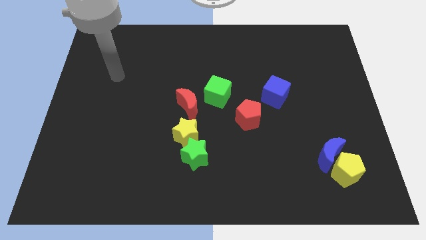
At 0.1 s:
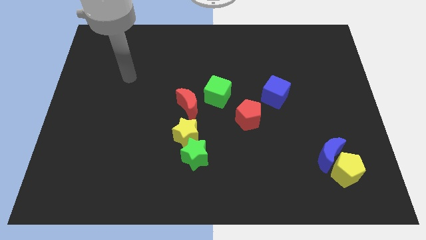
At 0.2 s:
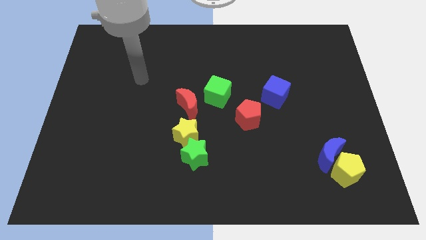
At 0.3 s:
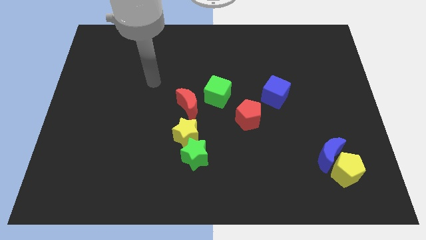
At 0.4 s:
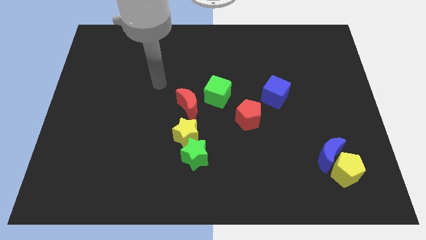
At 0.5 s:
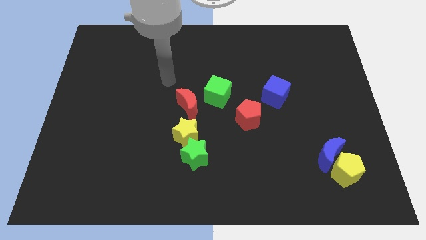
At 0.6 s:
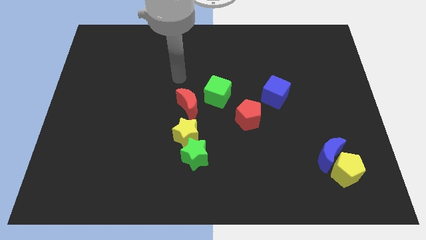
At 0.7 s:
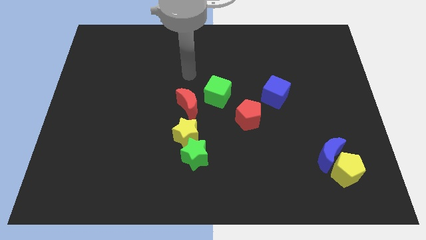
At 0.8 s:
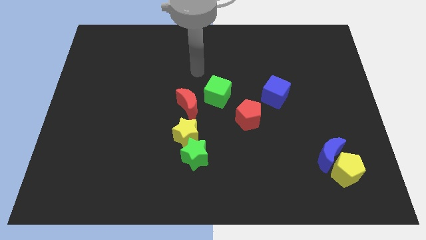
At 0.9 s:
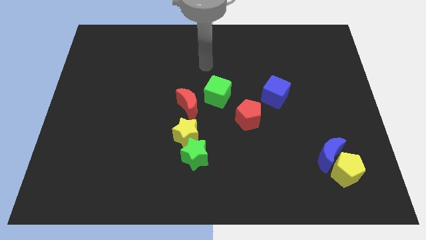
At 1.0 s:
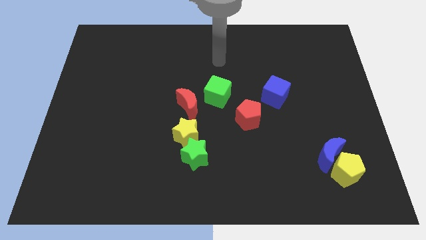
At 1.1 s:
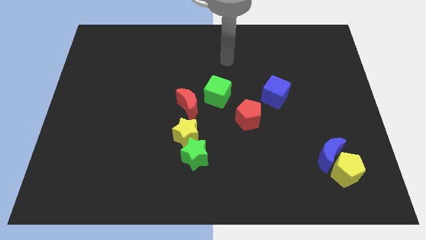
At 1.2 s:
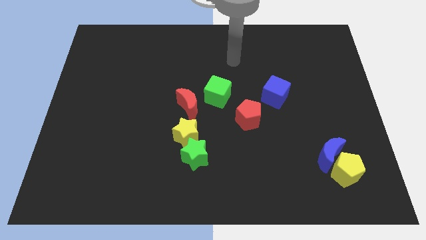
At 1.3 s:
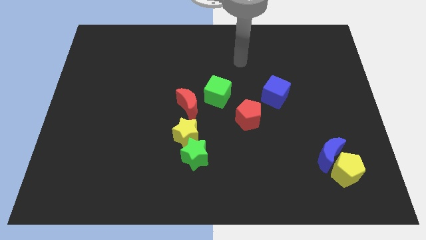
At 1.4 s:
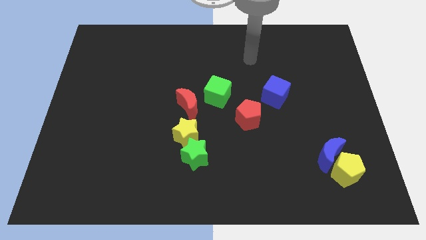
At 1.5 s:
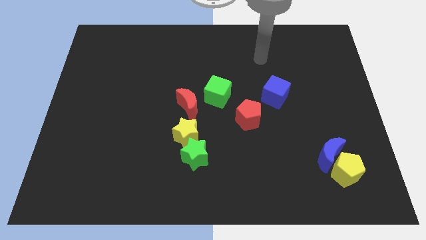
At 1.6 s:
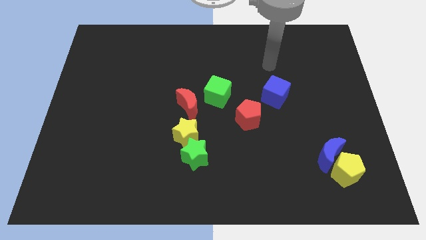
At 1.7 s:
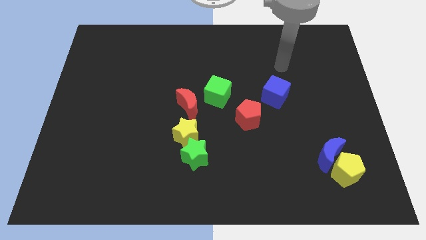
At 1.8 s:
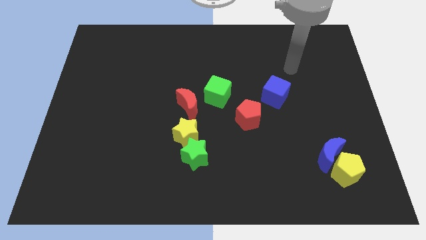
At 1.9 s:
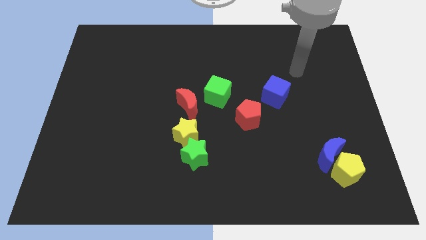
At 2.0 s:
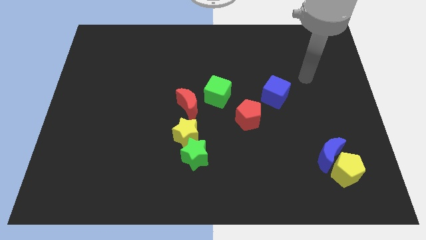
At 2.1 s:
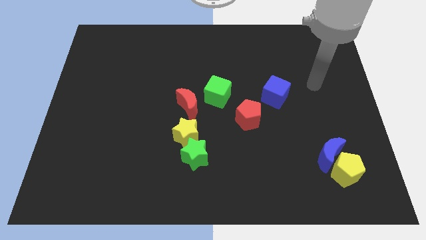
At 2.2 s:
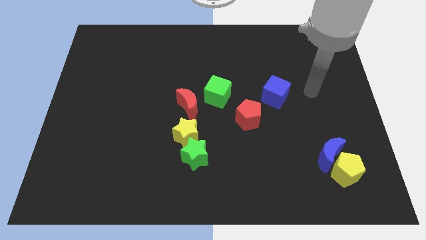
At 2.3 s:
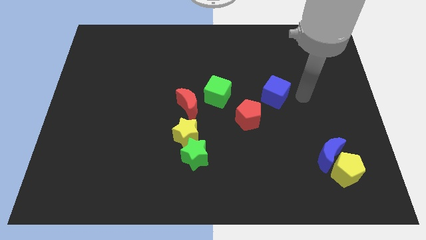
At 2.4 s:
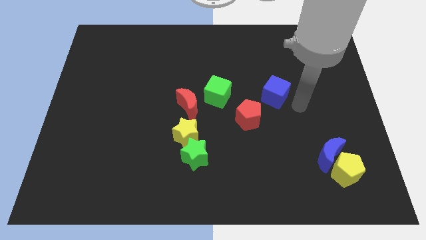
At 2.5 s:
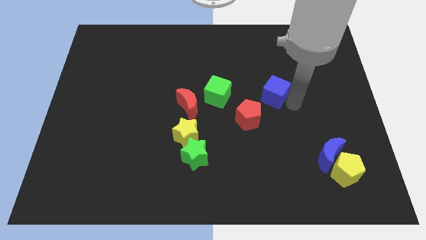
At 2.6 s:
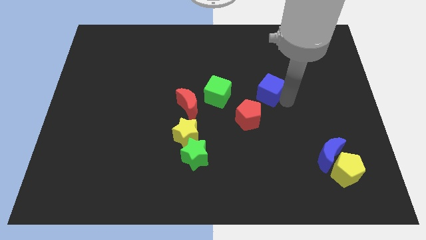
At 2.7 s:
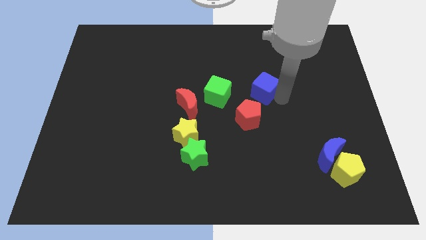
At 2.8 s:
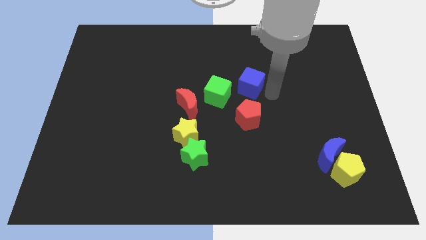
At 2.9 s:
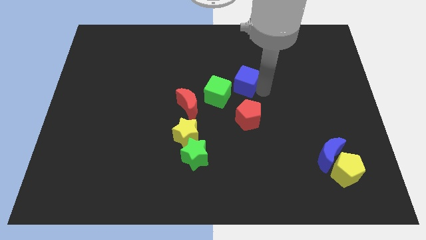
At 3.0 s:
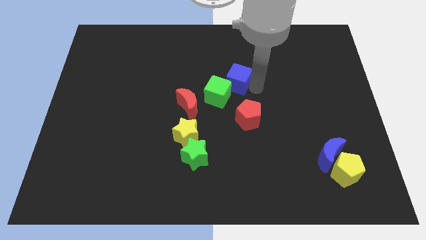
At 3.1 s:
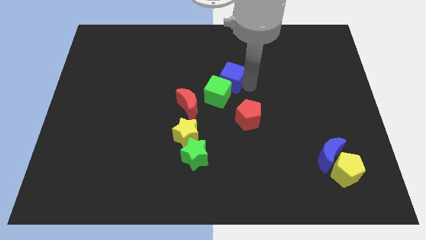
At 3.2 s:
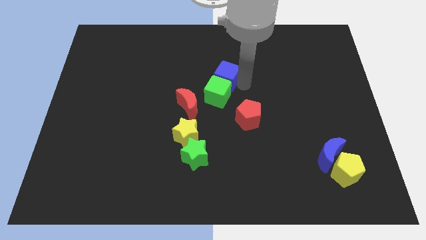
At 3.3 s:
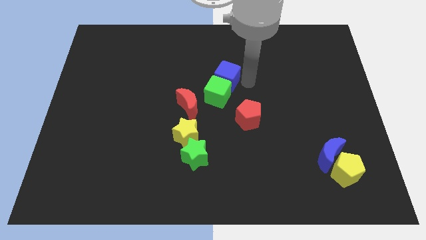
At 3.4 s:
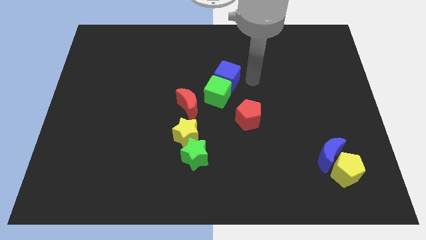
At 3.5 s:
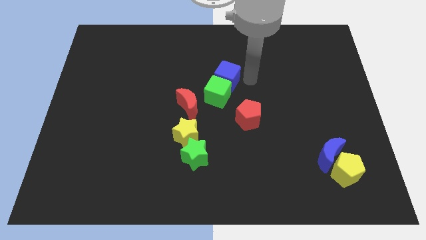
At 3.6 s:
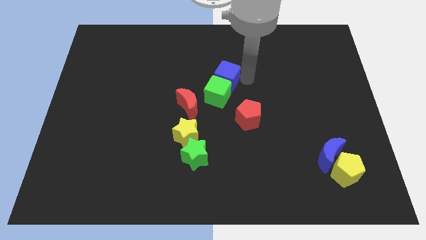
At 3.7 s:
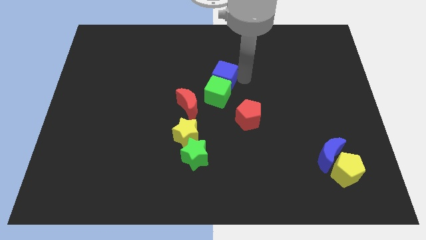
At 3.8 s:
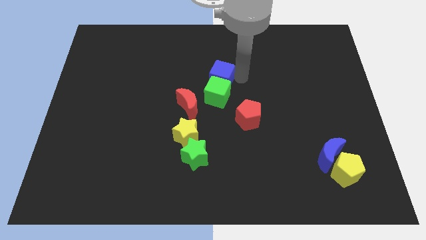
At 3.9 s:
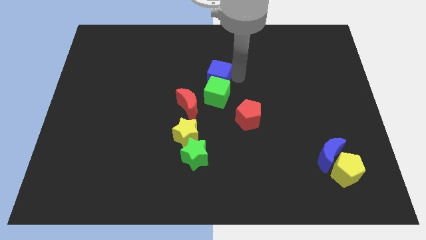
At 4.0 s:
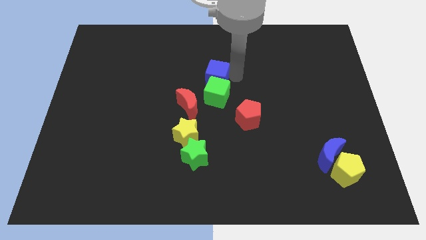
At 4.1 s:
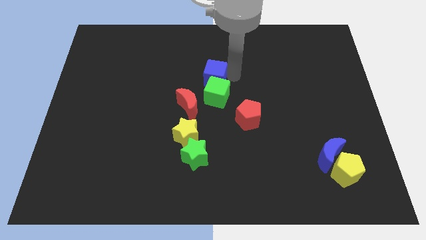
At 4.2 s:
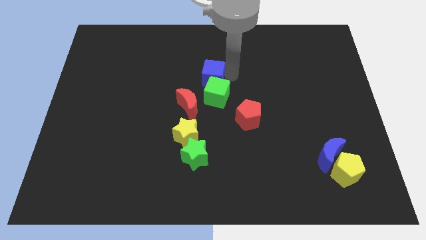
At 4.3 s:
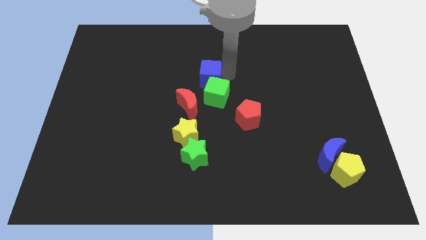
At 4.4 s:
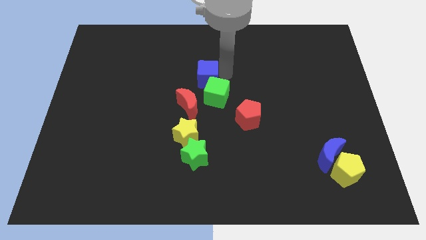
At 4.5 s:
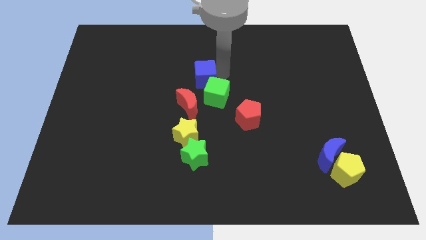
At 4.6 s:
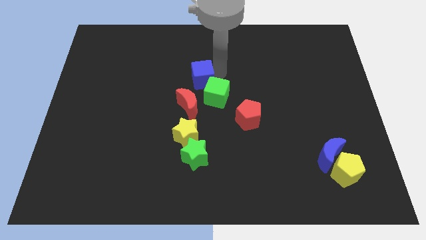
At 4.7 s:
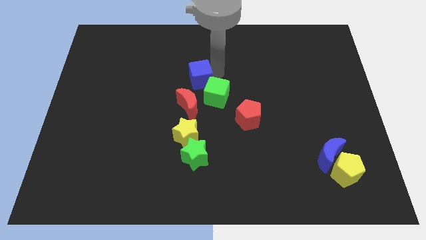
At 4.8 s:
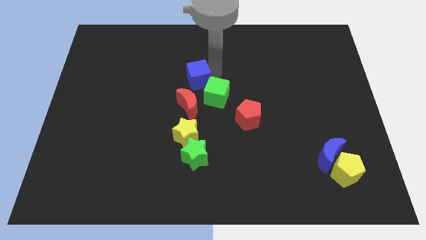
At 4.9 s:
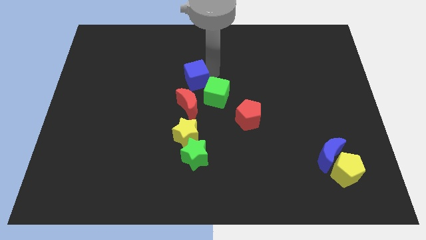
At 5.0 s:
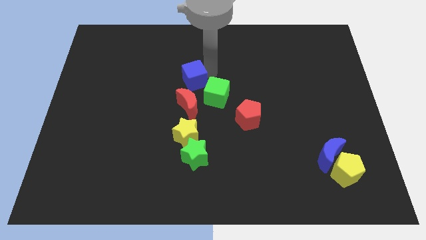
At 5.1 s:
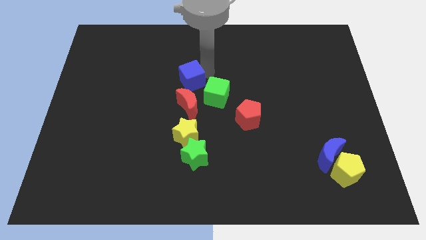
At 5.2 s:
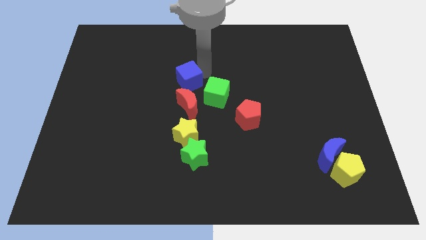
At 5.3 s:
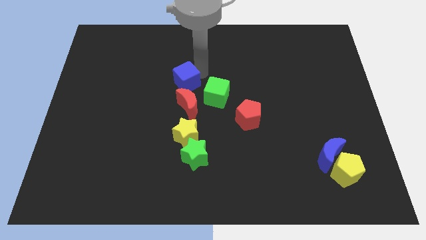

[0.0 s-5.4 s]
move the blue cube diagonally up and to the left of the red moon

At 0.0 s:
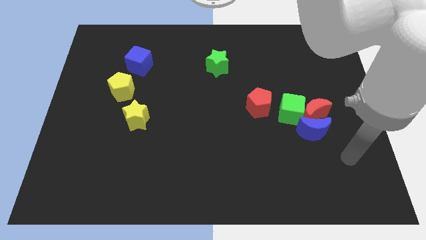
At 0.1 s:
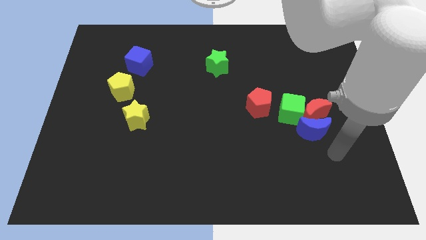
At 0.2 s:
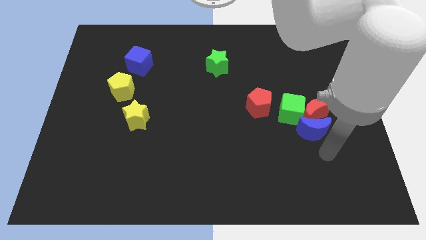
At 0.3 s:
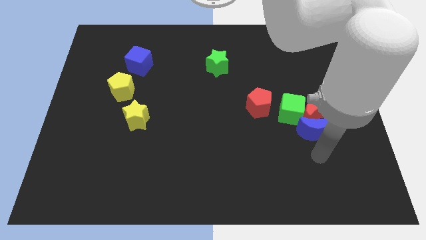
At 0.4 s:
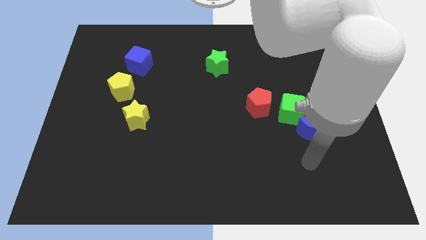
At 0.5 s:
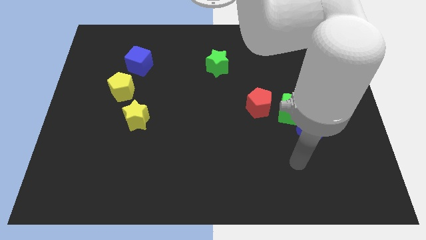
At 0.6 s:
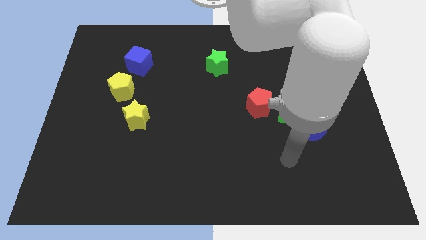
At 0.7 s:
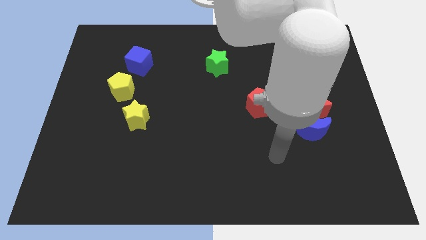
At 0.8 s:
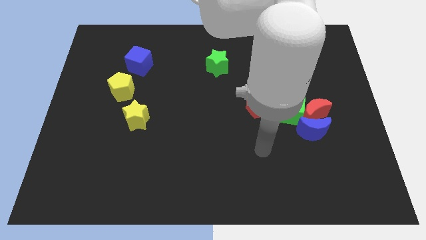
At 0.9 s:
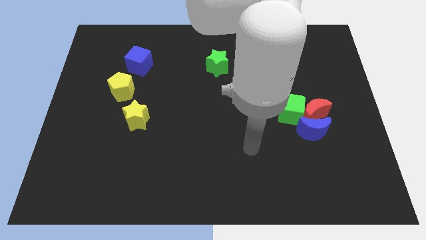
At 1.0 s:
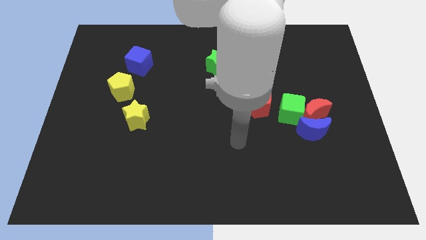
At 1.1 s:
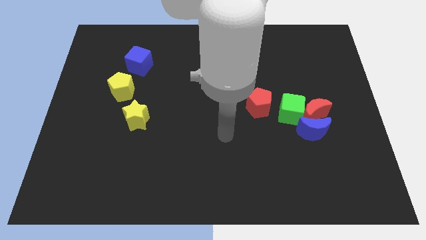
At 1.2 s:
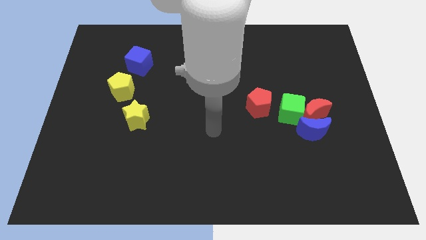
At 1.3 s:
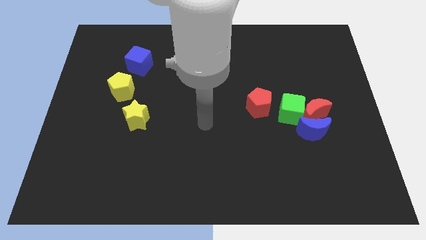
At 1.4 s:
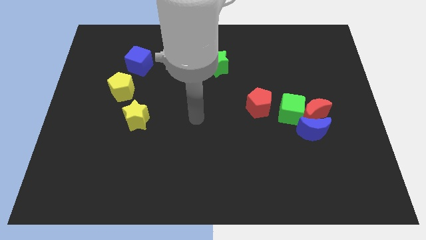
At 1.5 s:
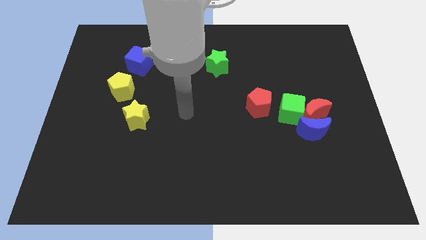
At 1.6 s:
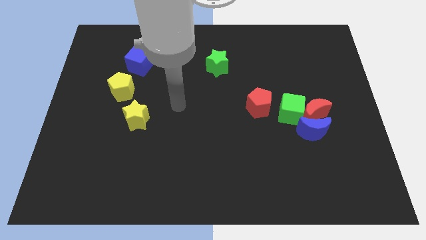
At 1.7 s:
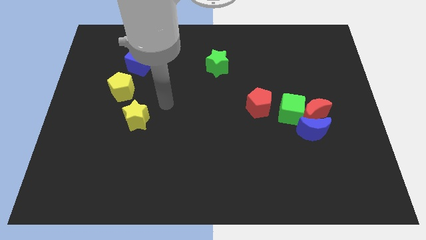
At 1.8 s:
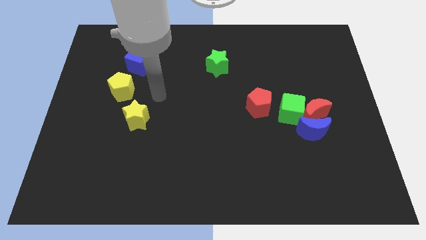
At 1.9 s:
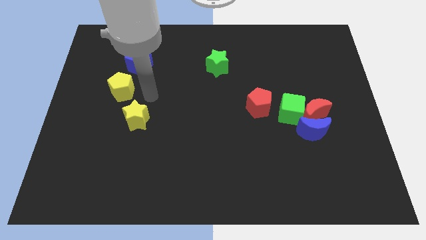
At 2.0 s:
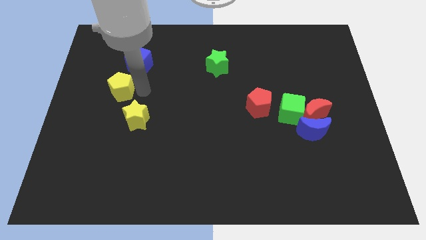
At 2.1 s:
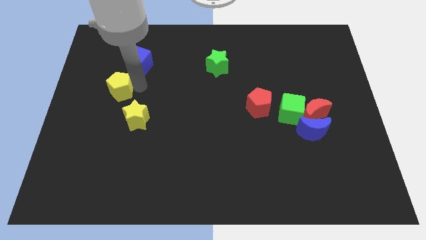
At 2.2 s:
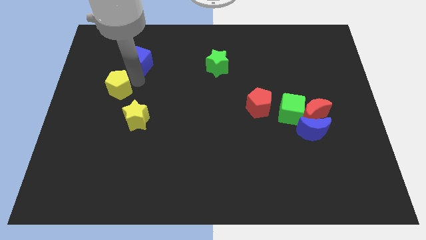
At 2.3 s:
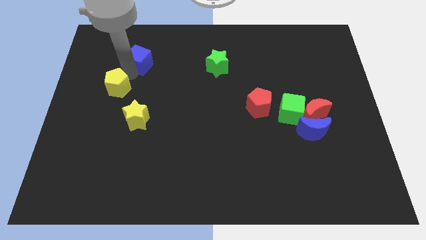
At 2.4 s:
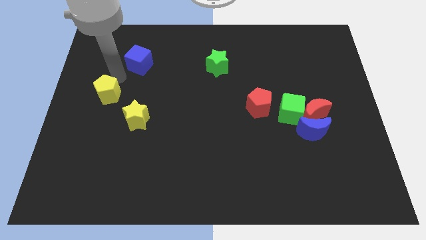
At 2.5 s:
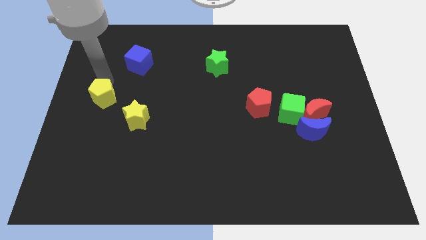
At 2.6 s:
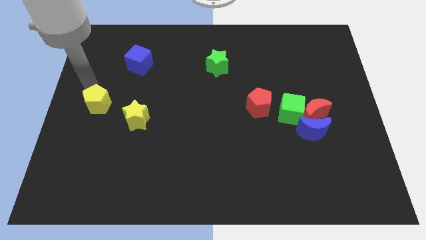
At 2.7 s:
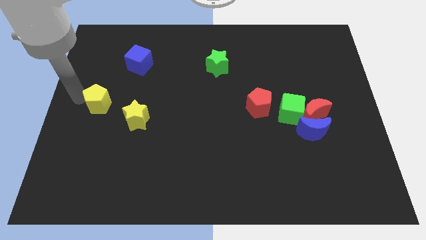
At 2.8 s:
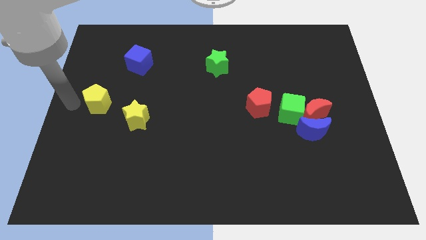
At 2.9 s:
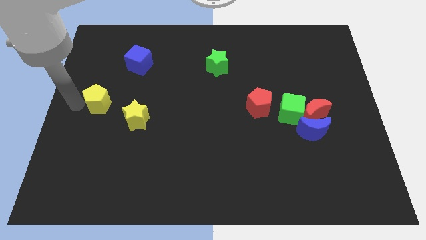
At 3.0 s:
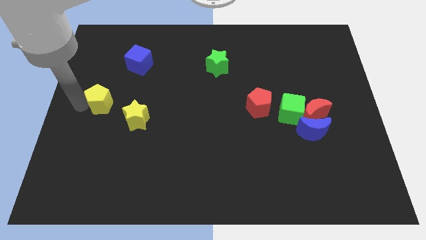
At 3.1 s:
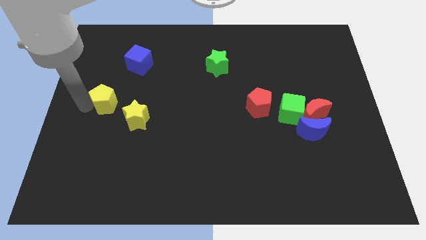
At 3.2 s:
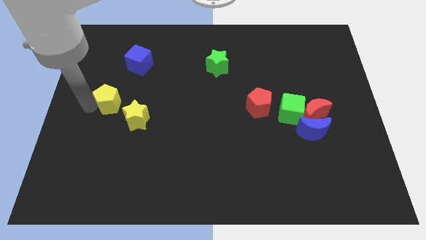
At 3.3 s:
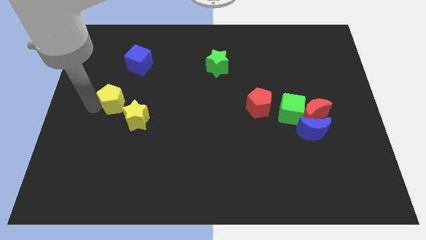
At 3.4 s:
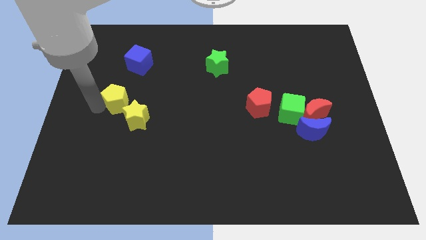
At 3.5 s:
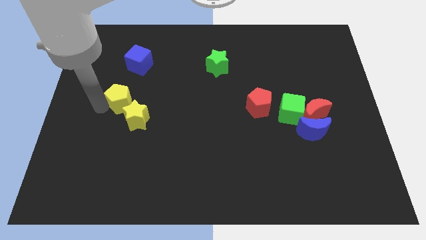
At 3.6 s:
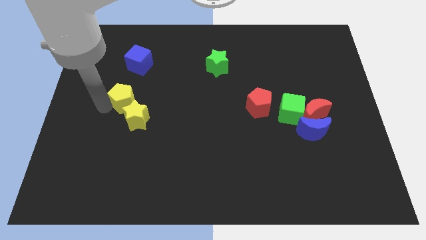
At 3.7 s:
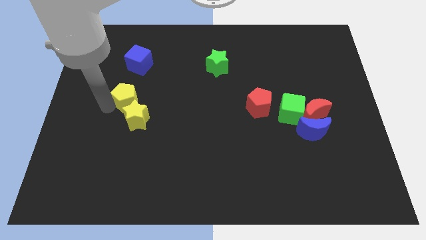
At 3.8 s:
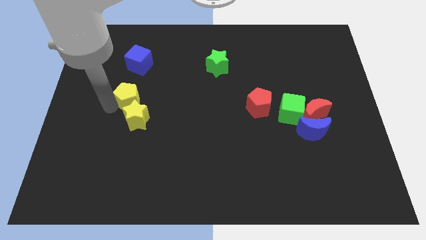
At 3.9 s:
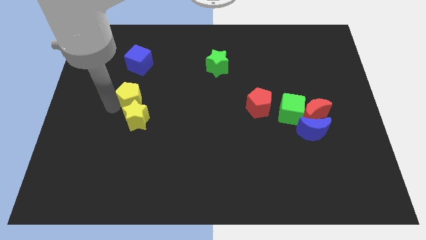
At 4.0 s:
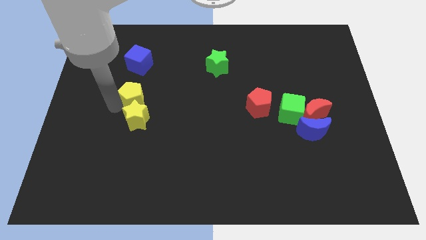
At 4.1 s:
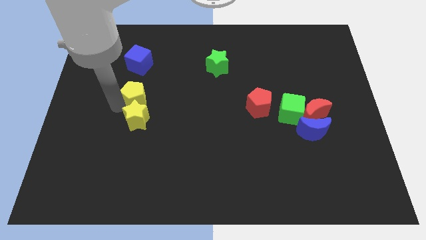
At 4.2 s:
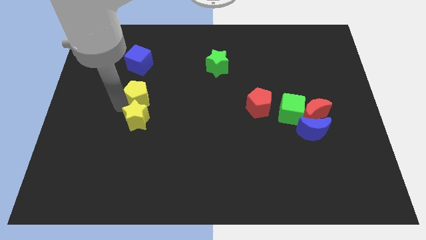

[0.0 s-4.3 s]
put the yellow pentagon to the top right side of the yellow star
